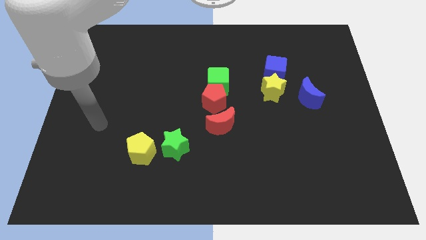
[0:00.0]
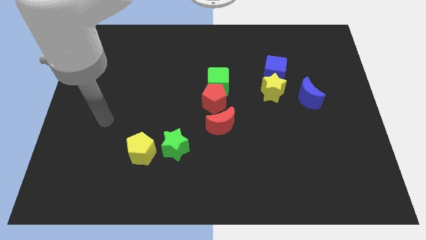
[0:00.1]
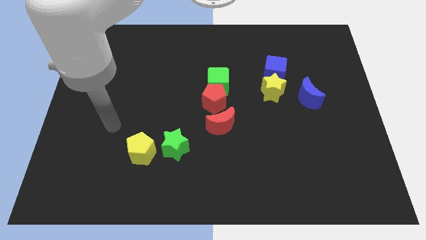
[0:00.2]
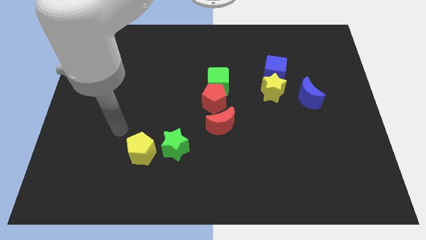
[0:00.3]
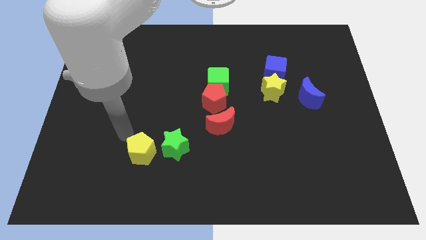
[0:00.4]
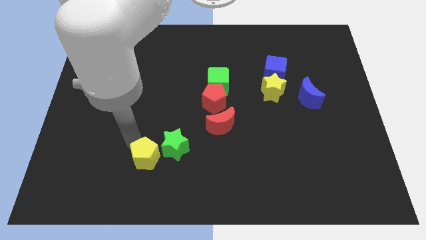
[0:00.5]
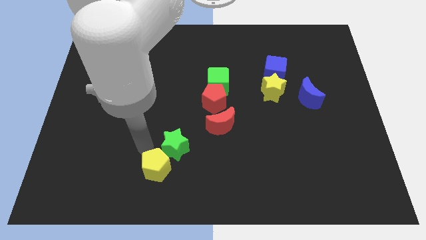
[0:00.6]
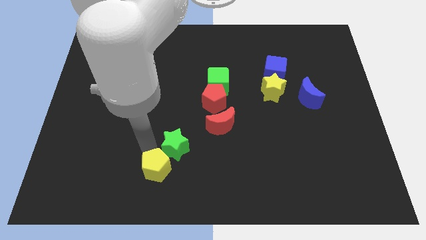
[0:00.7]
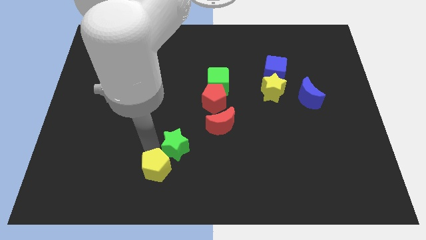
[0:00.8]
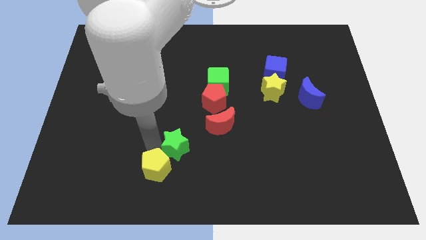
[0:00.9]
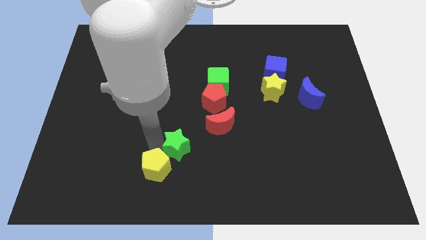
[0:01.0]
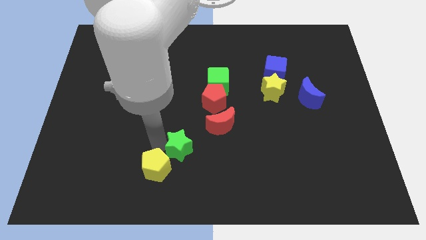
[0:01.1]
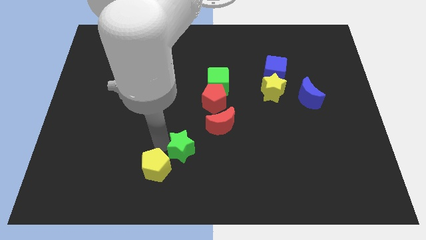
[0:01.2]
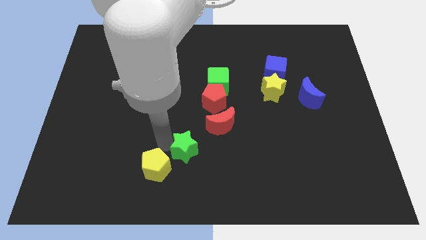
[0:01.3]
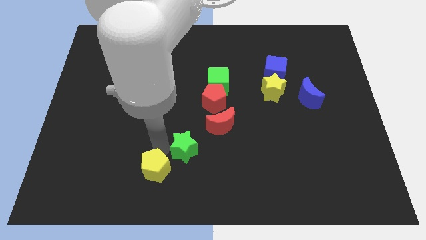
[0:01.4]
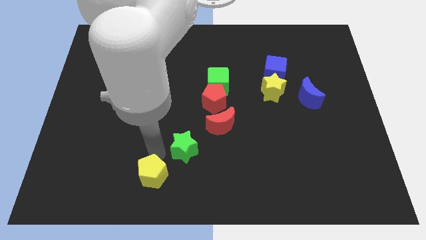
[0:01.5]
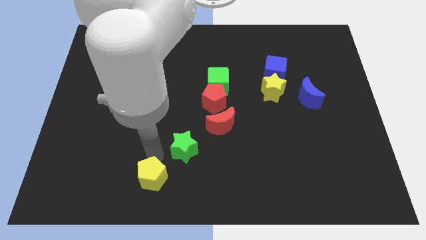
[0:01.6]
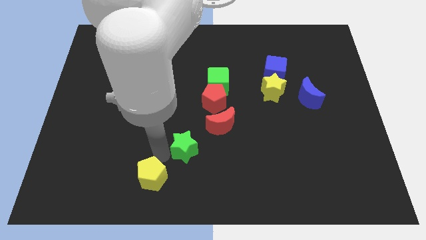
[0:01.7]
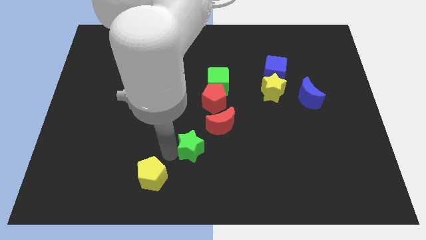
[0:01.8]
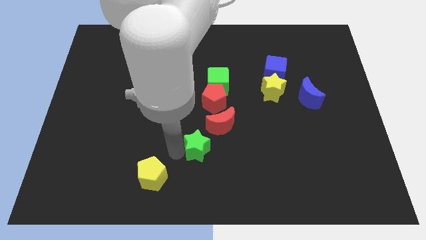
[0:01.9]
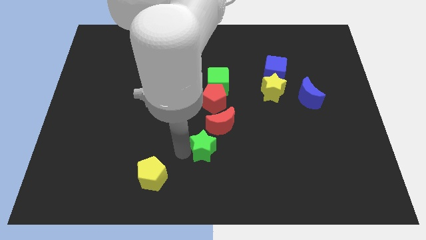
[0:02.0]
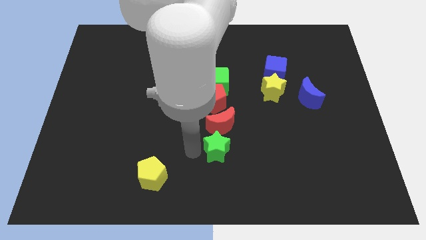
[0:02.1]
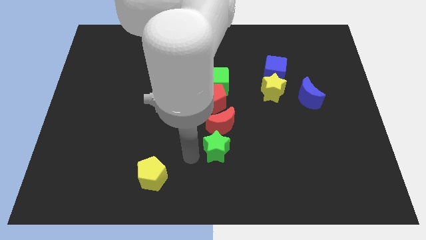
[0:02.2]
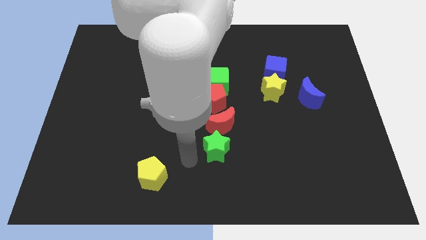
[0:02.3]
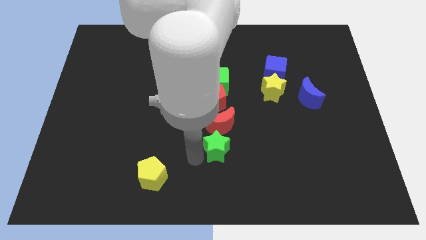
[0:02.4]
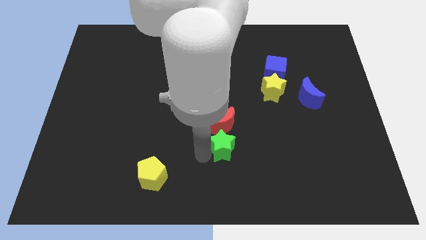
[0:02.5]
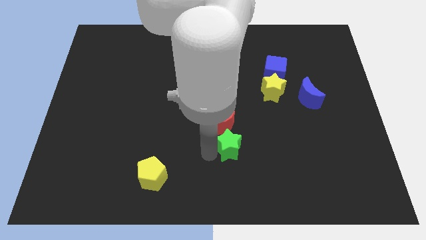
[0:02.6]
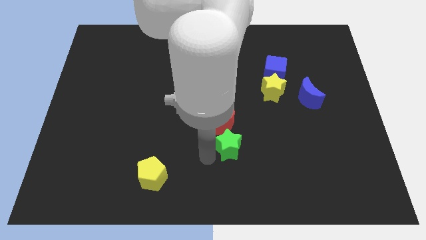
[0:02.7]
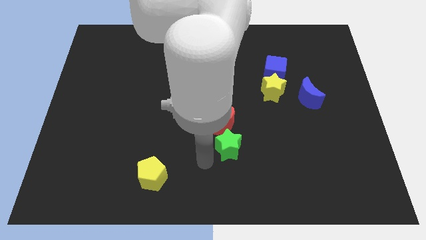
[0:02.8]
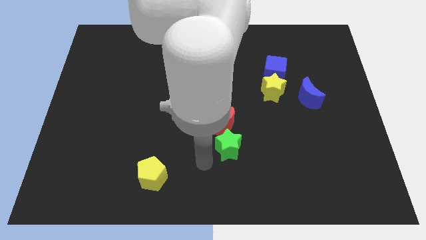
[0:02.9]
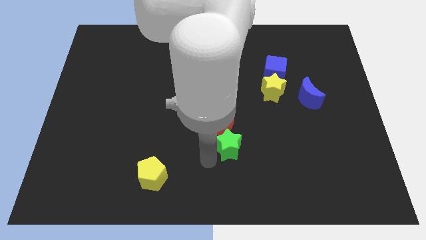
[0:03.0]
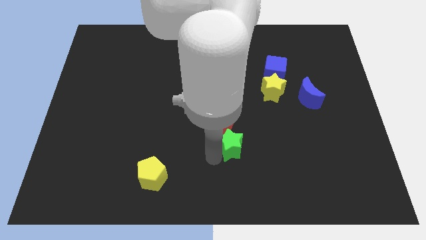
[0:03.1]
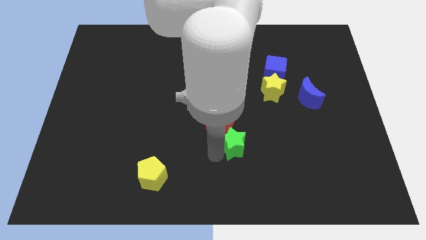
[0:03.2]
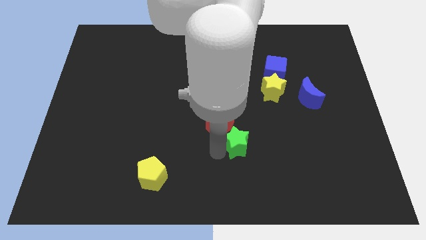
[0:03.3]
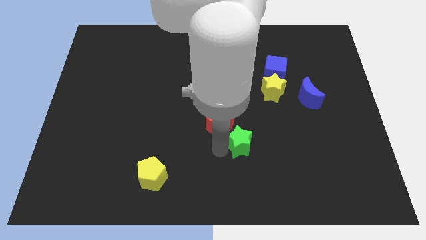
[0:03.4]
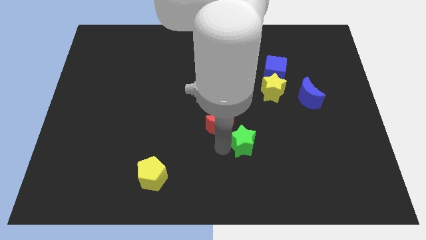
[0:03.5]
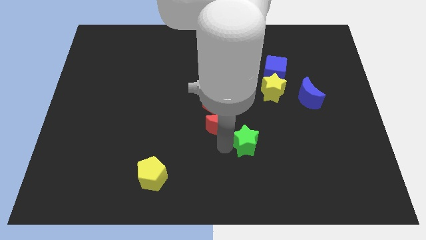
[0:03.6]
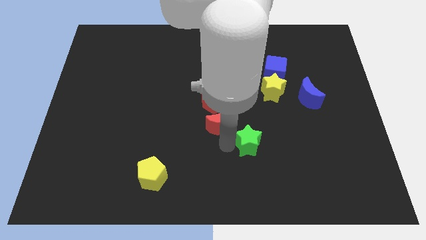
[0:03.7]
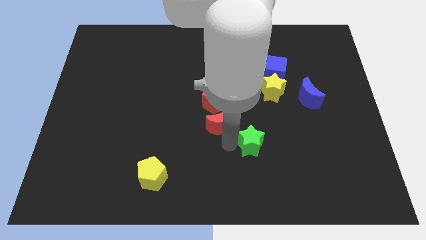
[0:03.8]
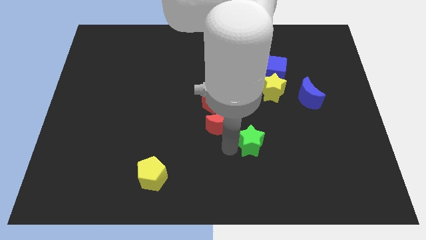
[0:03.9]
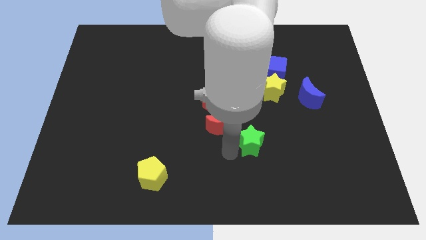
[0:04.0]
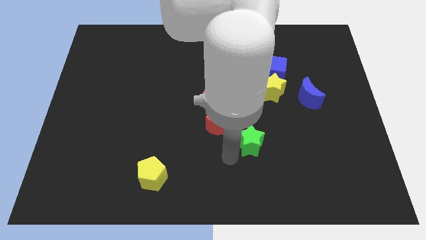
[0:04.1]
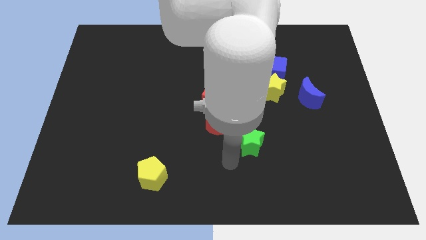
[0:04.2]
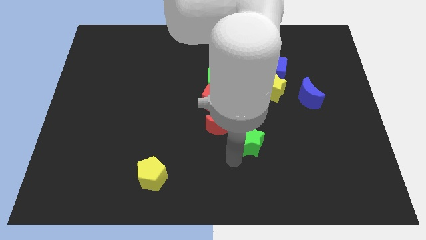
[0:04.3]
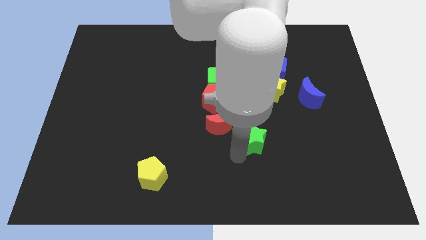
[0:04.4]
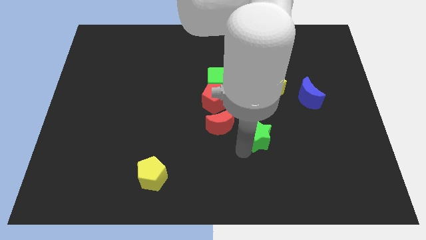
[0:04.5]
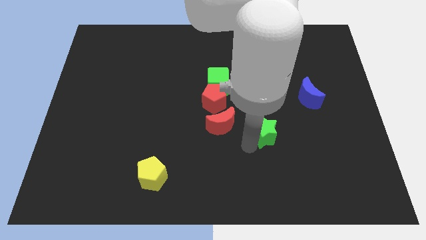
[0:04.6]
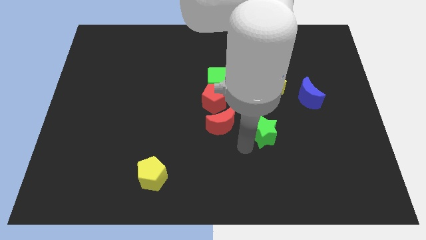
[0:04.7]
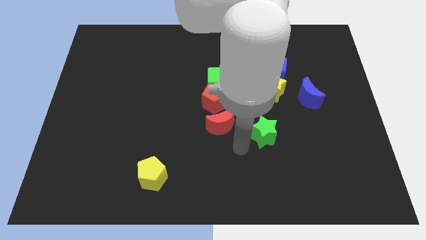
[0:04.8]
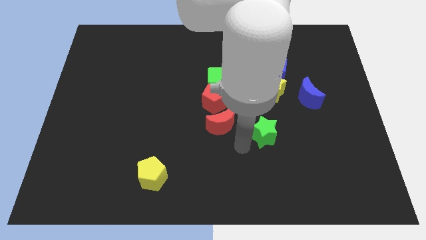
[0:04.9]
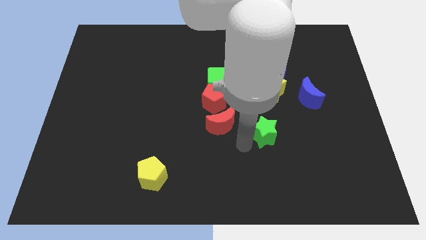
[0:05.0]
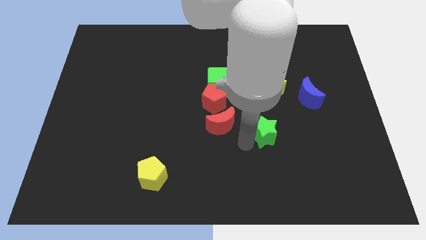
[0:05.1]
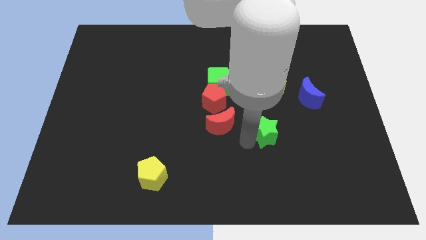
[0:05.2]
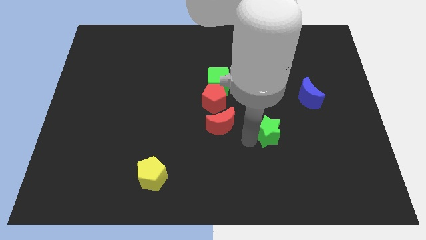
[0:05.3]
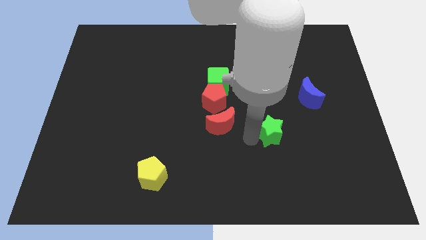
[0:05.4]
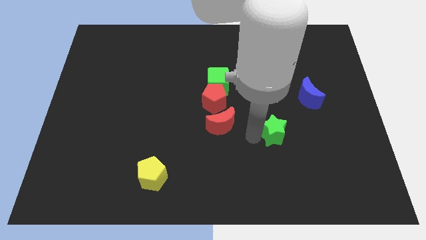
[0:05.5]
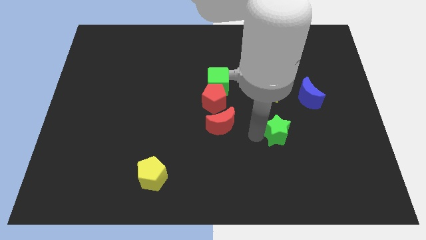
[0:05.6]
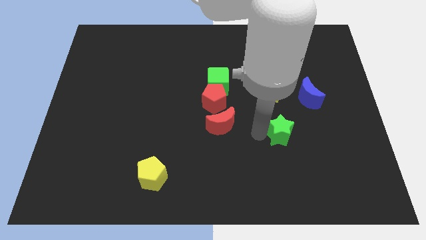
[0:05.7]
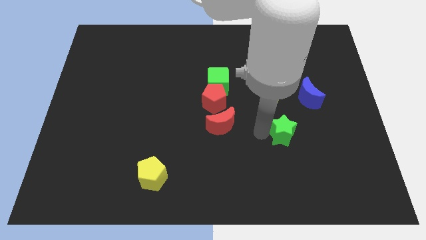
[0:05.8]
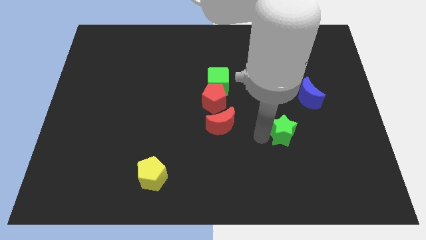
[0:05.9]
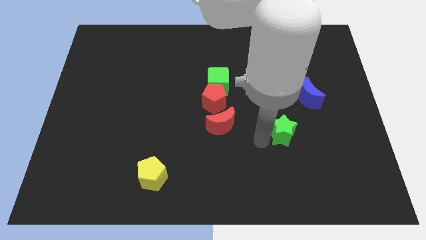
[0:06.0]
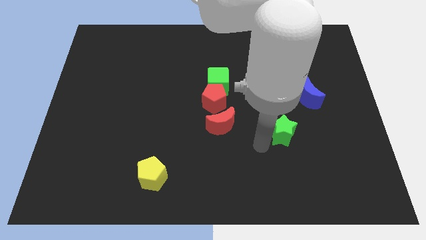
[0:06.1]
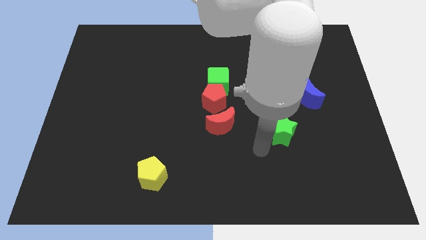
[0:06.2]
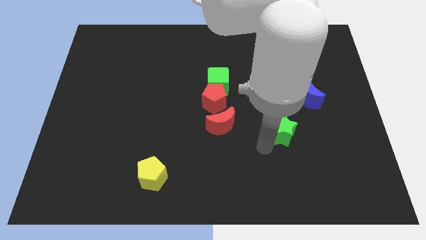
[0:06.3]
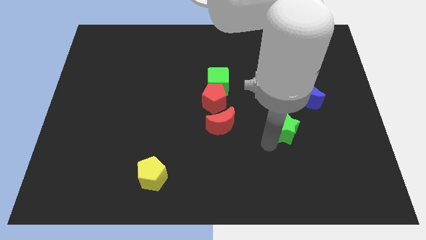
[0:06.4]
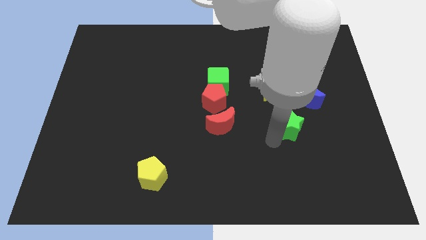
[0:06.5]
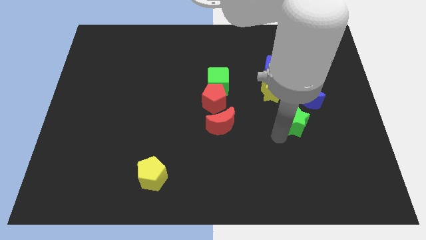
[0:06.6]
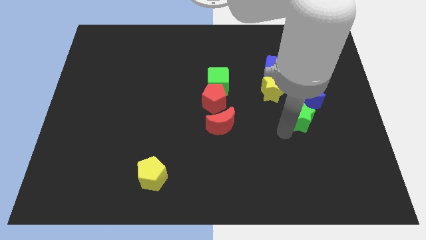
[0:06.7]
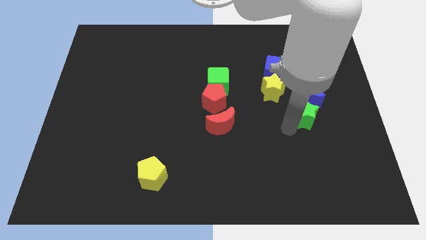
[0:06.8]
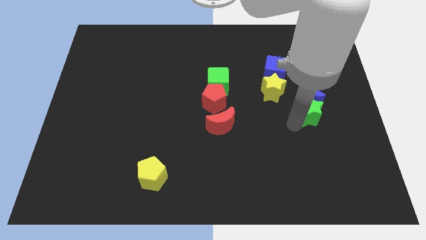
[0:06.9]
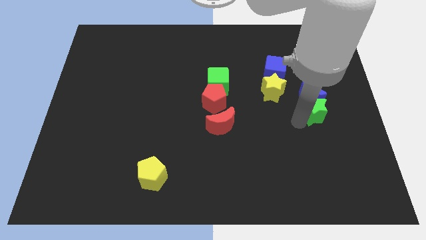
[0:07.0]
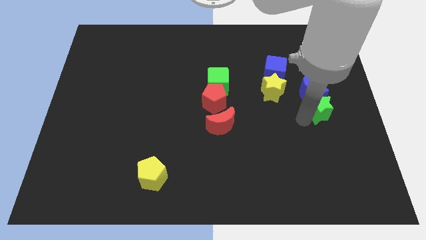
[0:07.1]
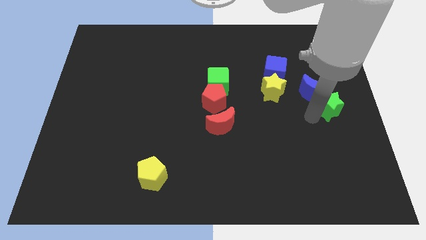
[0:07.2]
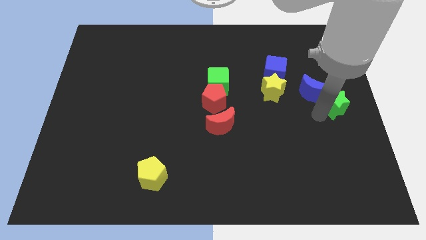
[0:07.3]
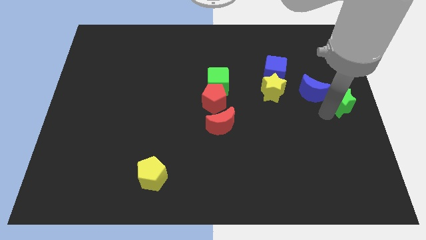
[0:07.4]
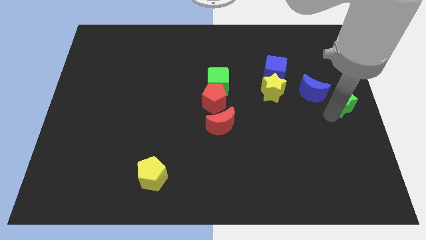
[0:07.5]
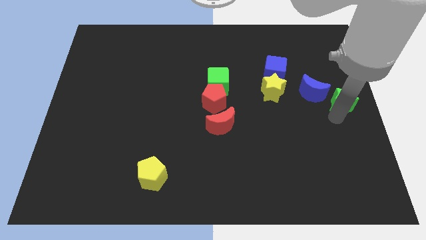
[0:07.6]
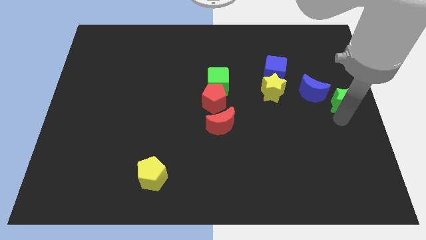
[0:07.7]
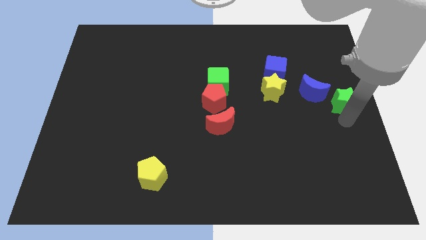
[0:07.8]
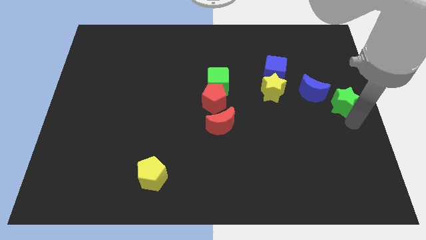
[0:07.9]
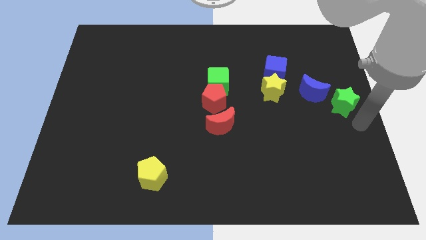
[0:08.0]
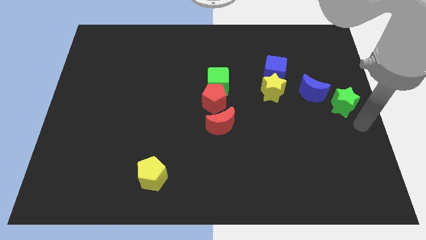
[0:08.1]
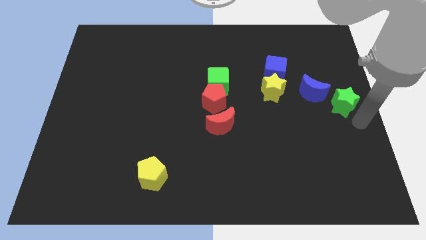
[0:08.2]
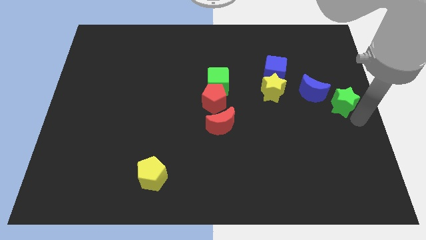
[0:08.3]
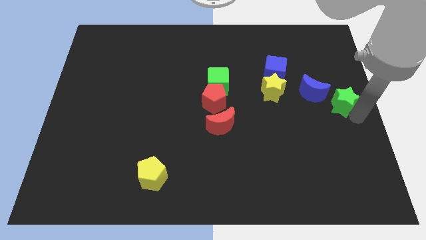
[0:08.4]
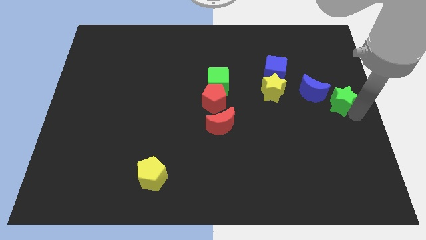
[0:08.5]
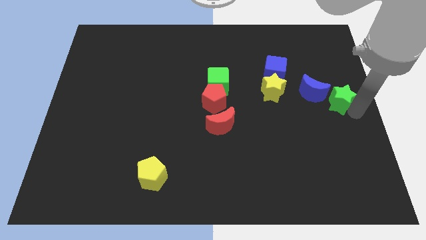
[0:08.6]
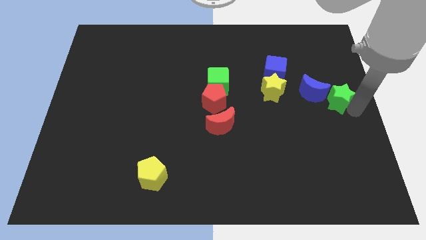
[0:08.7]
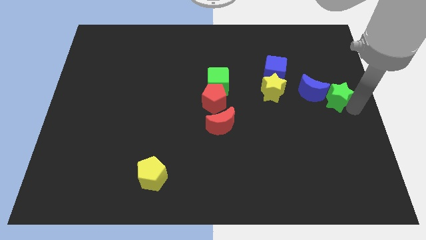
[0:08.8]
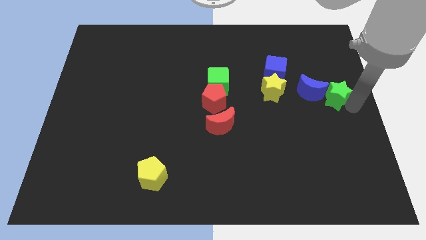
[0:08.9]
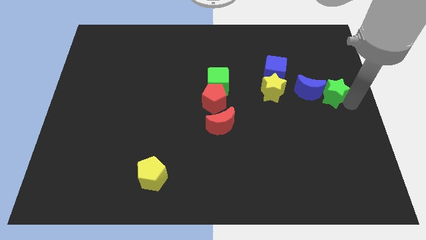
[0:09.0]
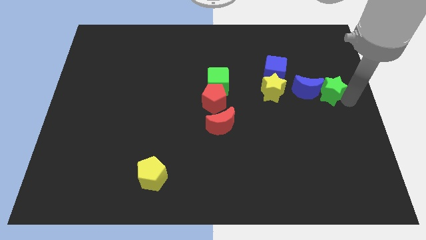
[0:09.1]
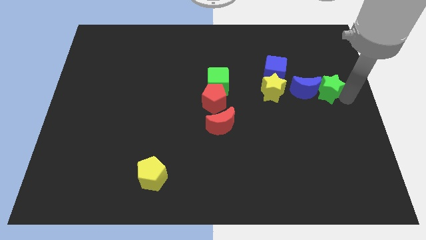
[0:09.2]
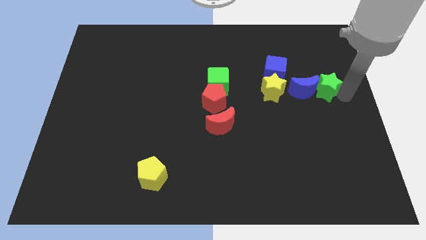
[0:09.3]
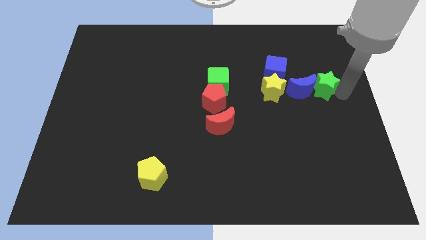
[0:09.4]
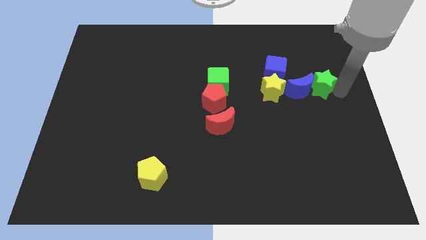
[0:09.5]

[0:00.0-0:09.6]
push the green star right of the blue cube
